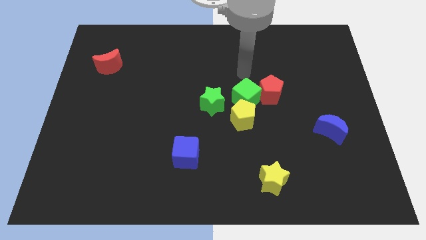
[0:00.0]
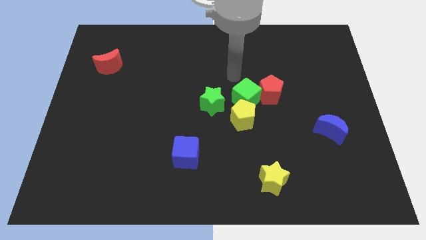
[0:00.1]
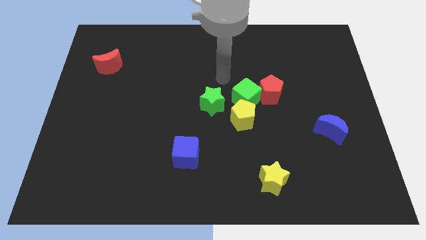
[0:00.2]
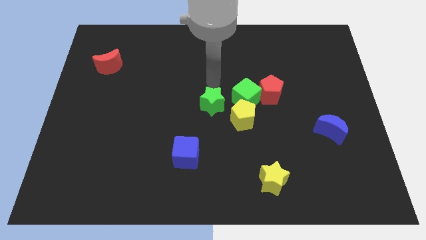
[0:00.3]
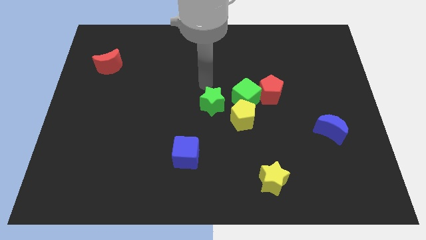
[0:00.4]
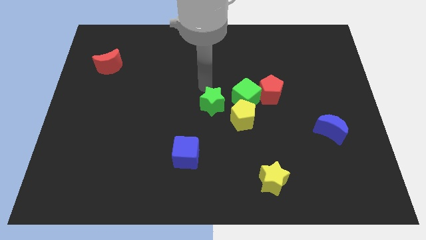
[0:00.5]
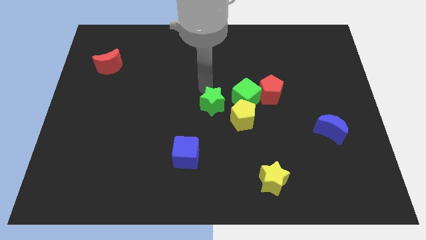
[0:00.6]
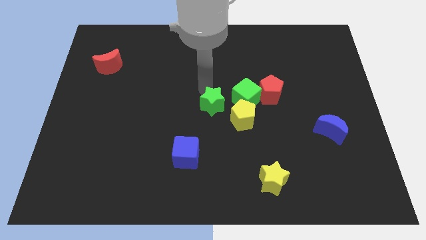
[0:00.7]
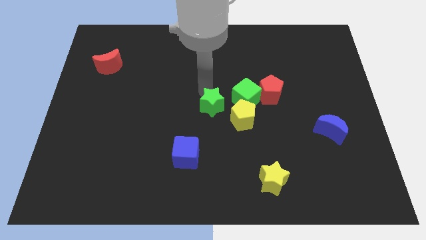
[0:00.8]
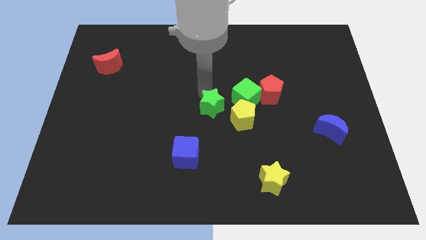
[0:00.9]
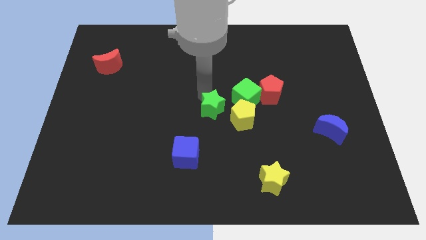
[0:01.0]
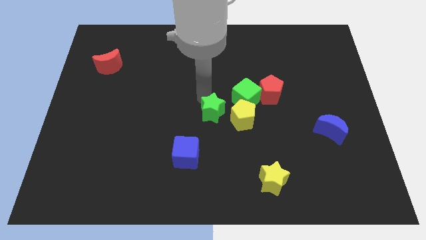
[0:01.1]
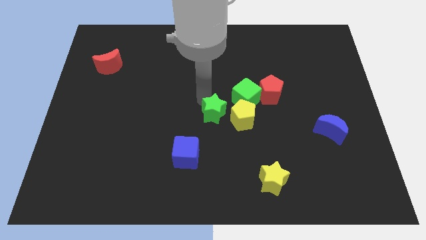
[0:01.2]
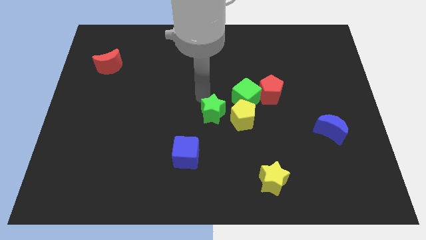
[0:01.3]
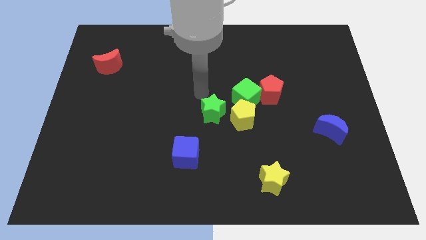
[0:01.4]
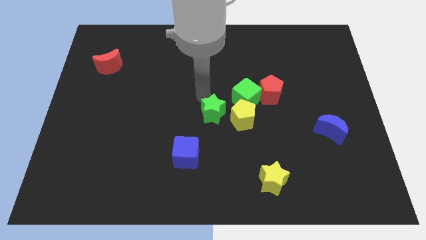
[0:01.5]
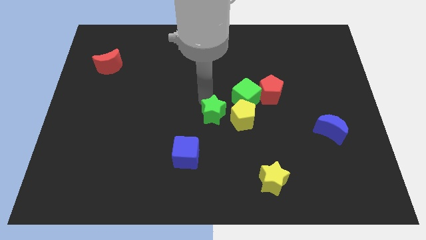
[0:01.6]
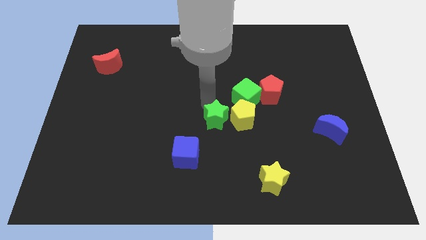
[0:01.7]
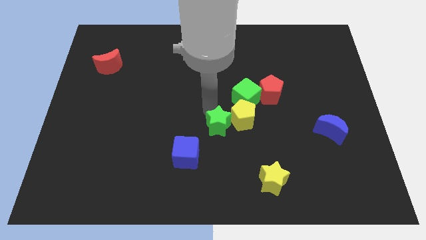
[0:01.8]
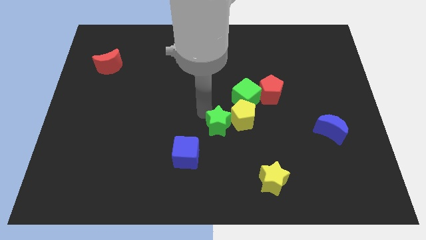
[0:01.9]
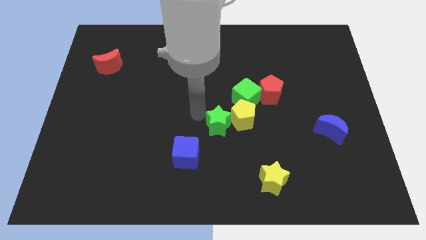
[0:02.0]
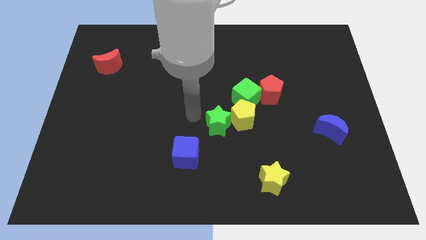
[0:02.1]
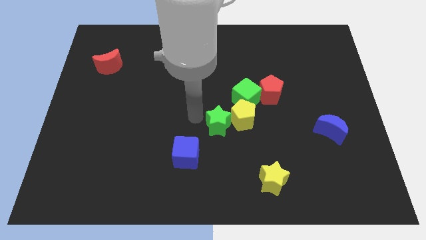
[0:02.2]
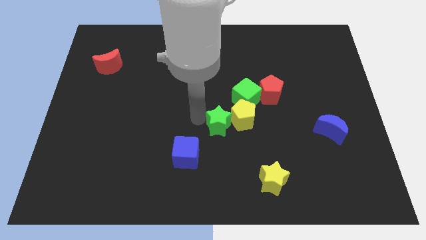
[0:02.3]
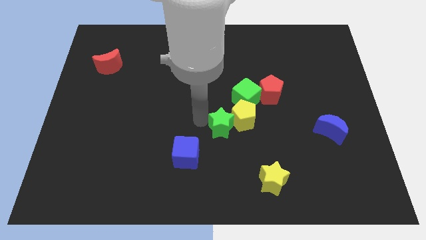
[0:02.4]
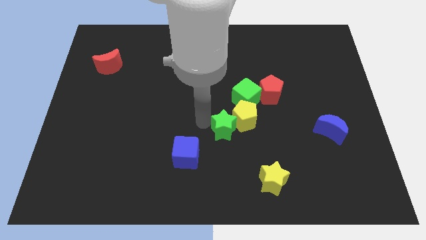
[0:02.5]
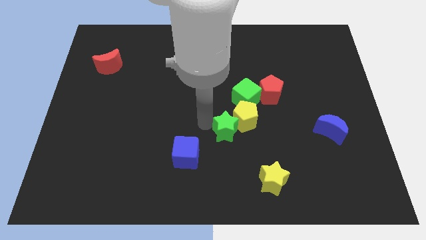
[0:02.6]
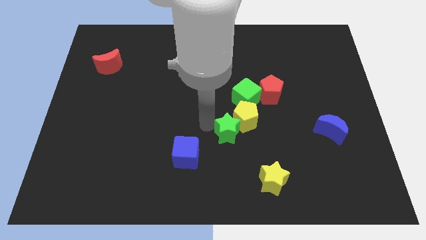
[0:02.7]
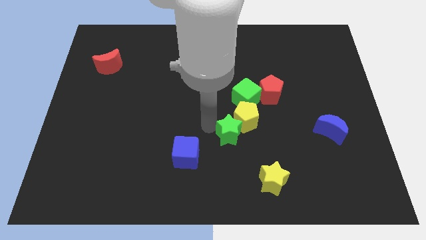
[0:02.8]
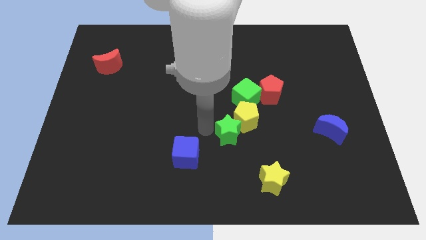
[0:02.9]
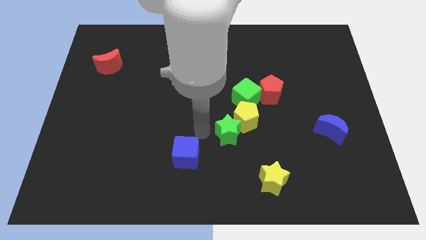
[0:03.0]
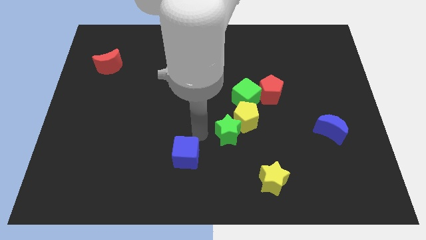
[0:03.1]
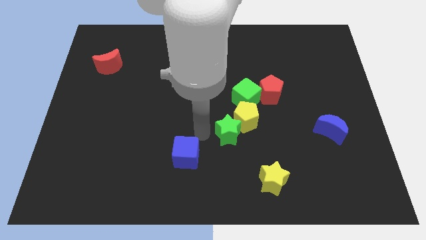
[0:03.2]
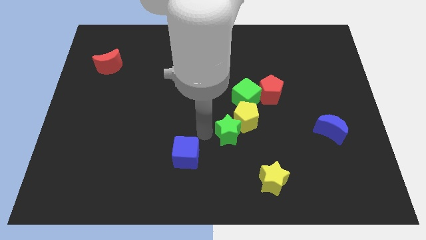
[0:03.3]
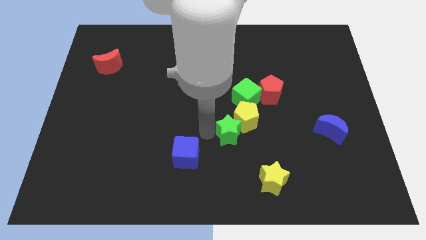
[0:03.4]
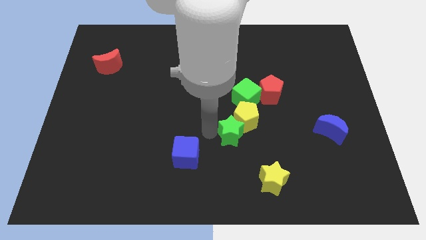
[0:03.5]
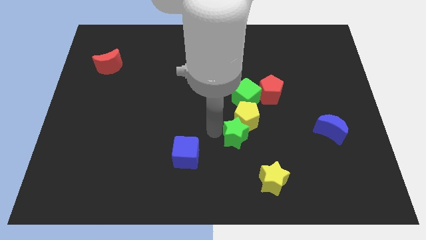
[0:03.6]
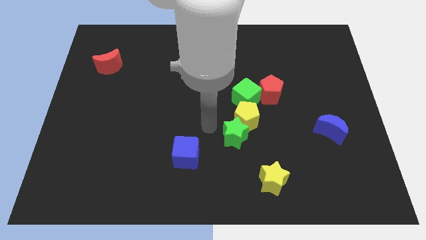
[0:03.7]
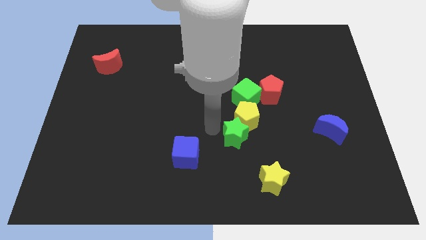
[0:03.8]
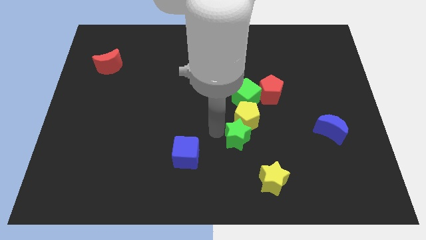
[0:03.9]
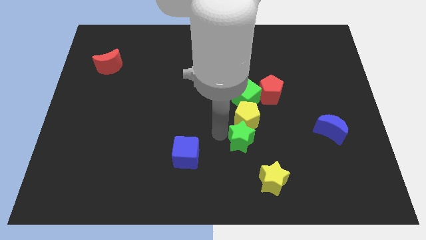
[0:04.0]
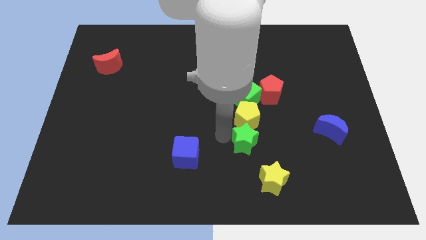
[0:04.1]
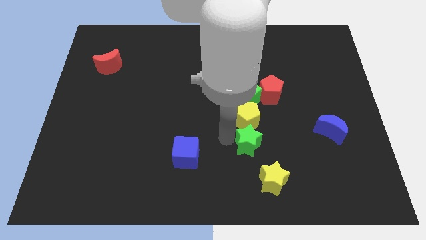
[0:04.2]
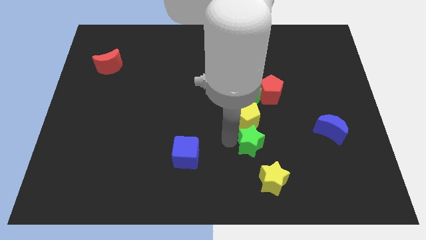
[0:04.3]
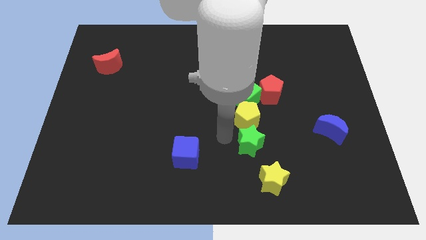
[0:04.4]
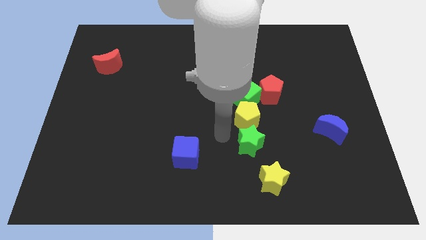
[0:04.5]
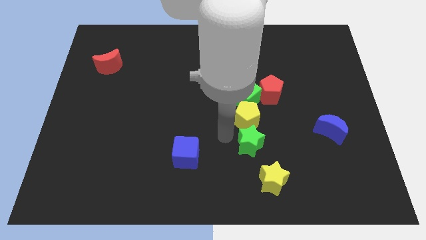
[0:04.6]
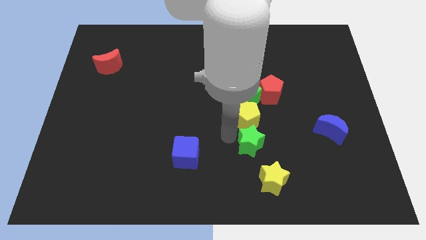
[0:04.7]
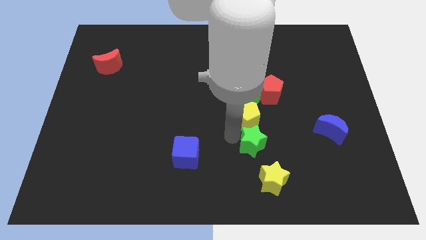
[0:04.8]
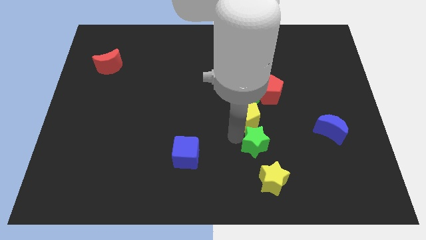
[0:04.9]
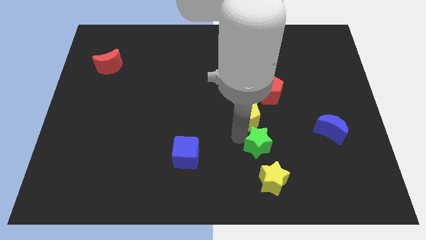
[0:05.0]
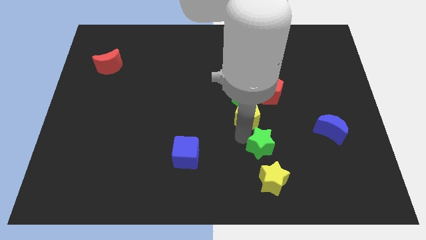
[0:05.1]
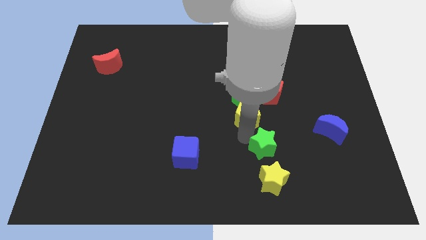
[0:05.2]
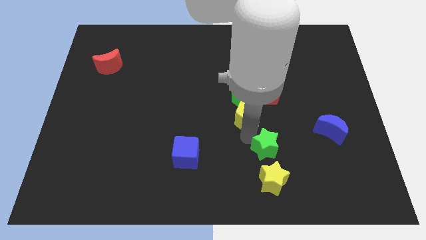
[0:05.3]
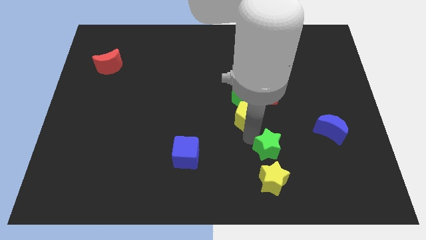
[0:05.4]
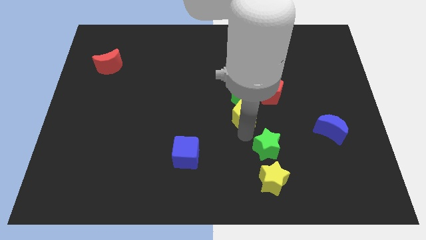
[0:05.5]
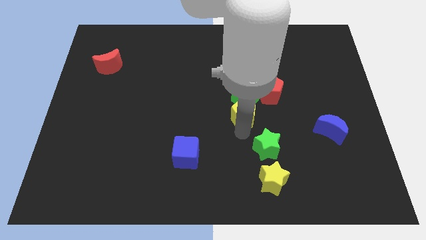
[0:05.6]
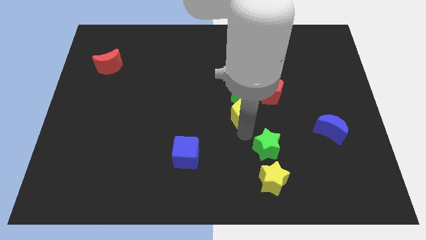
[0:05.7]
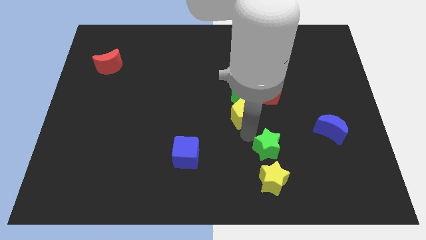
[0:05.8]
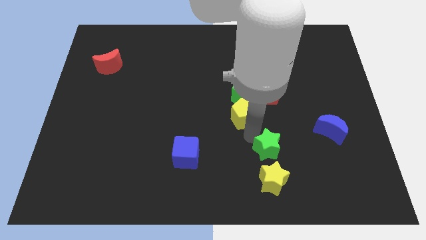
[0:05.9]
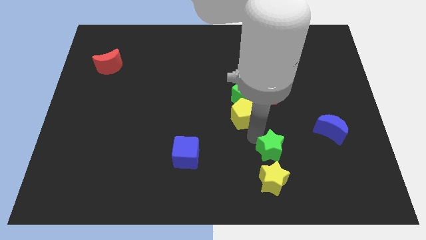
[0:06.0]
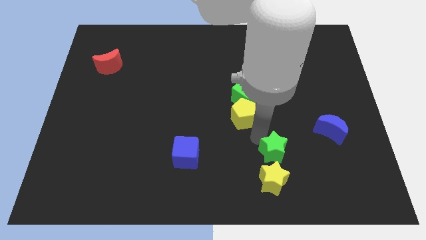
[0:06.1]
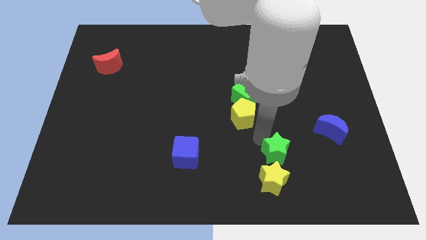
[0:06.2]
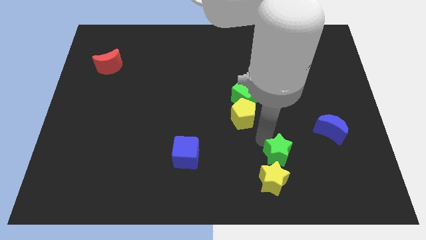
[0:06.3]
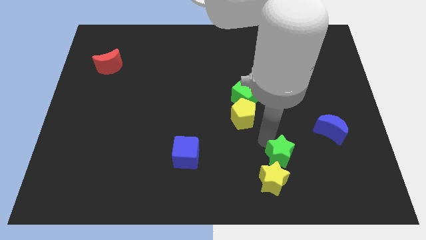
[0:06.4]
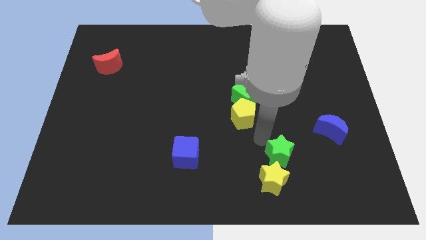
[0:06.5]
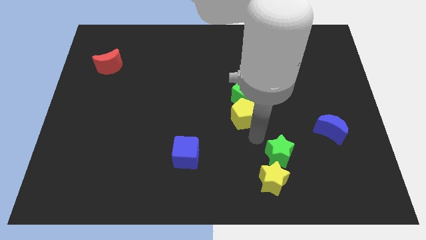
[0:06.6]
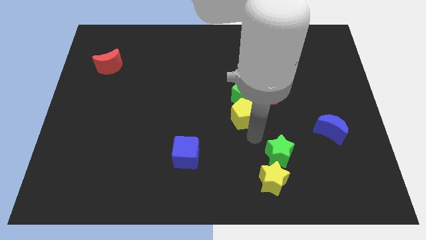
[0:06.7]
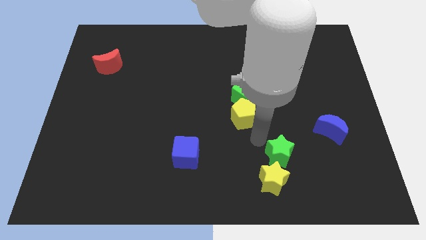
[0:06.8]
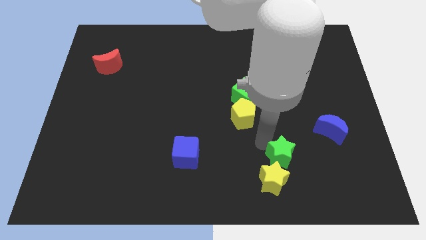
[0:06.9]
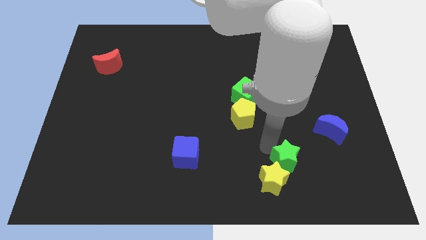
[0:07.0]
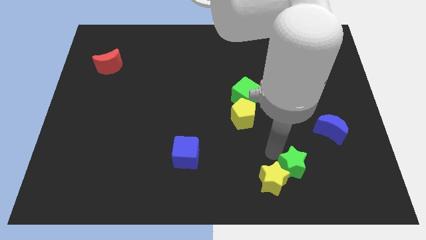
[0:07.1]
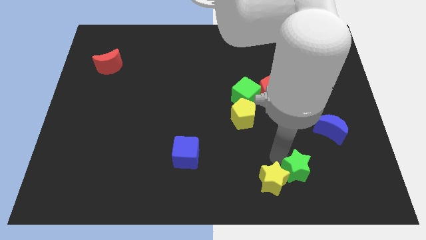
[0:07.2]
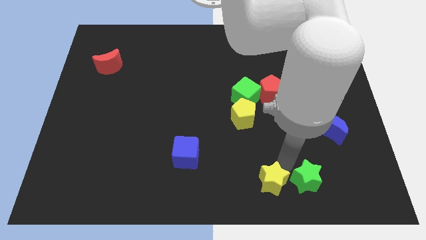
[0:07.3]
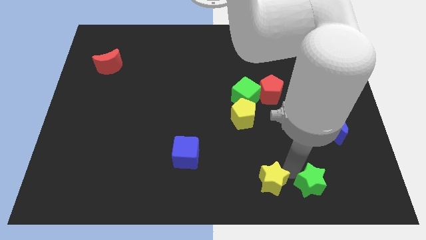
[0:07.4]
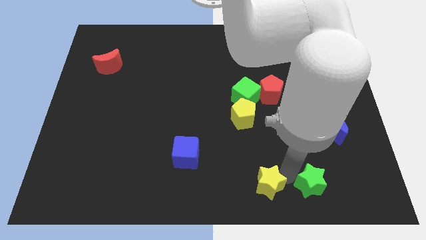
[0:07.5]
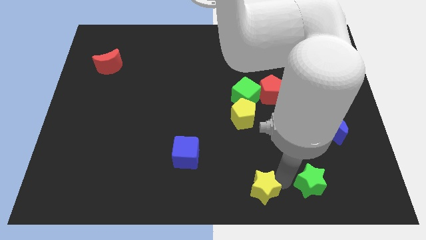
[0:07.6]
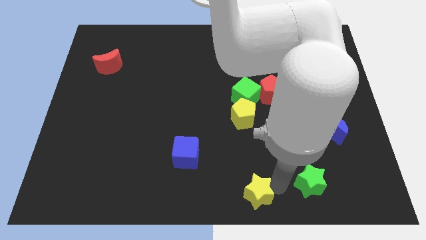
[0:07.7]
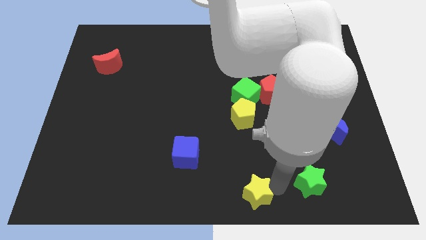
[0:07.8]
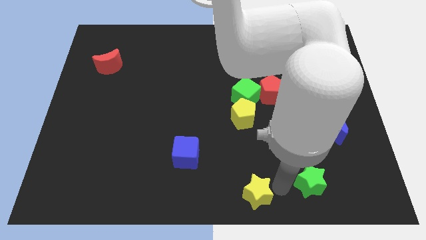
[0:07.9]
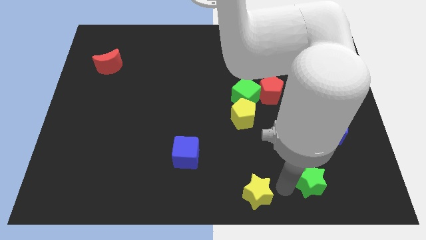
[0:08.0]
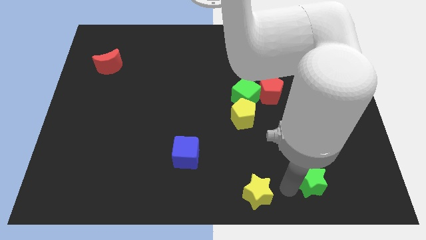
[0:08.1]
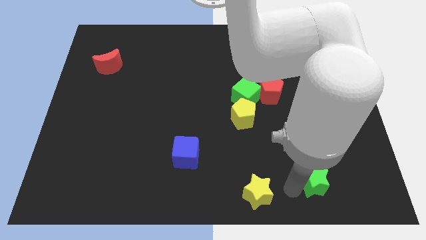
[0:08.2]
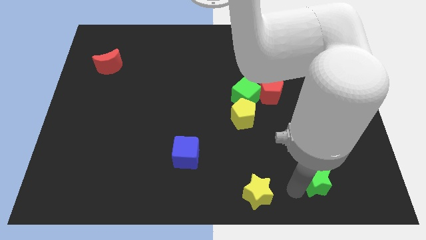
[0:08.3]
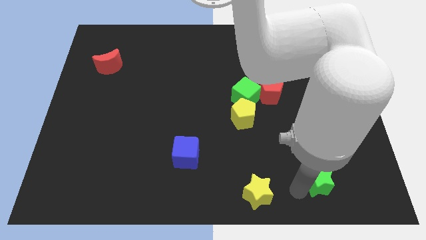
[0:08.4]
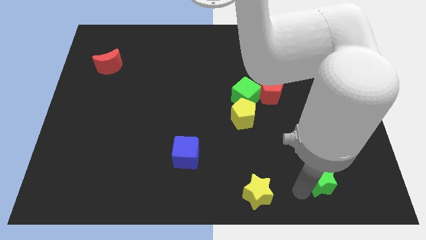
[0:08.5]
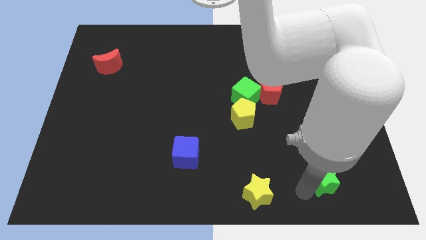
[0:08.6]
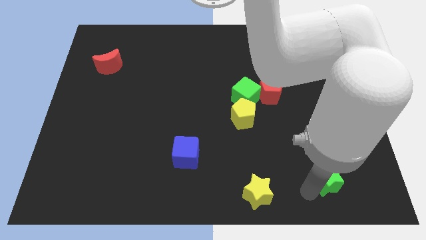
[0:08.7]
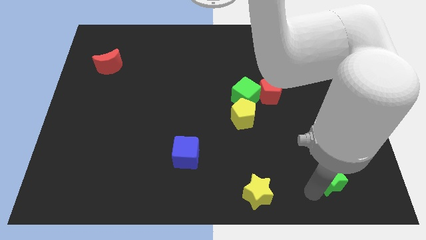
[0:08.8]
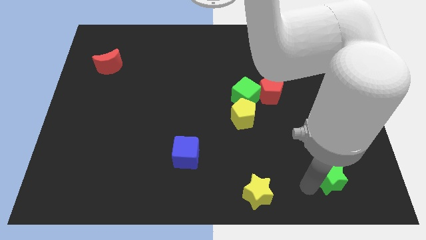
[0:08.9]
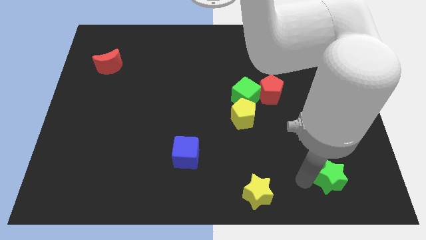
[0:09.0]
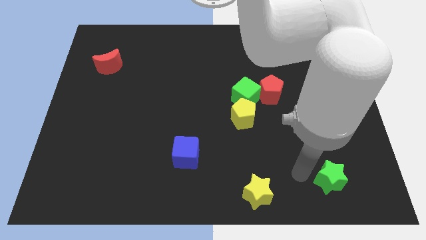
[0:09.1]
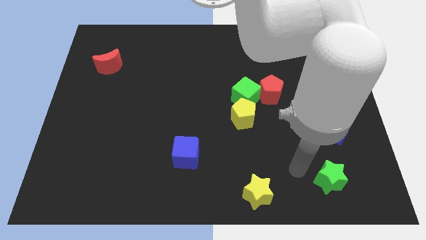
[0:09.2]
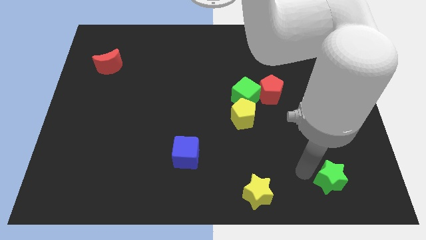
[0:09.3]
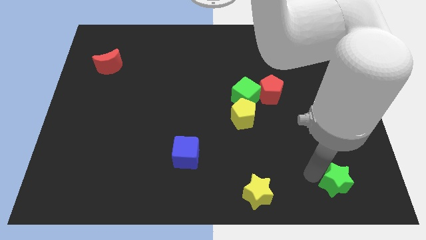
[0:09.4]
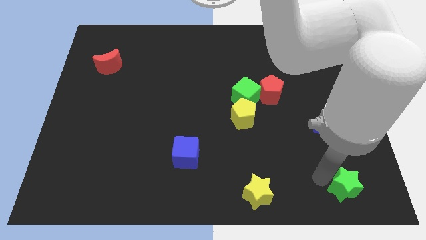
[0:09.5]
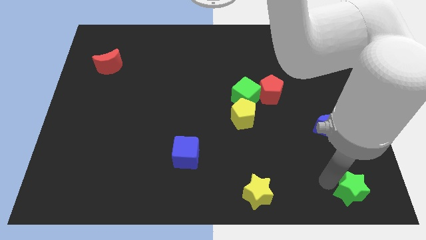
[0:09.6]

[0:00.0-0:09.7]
slide the green star to the lower right corner
